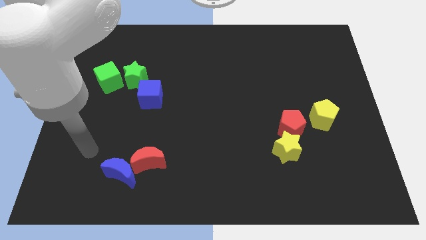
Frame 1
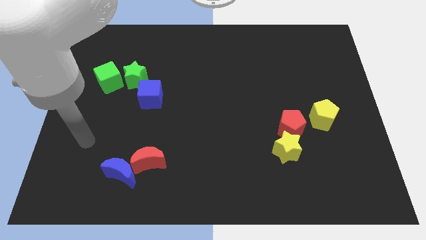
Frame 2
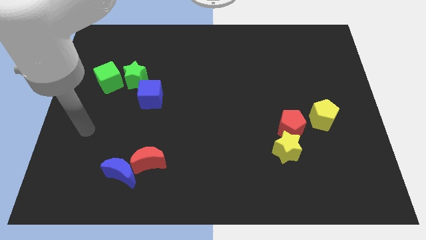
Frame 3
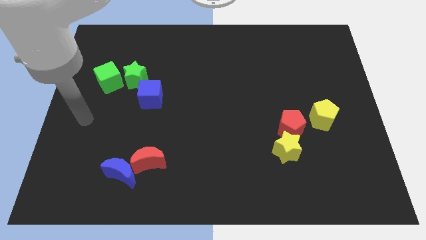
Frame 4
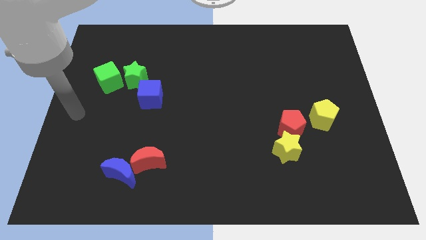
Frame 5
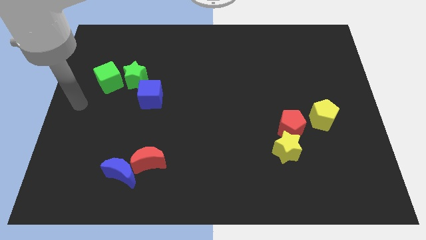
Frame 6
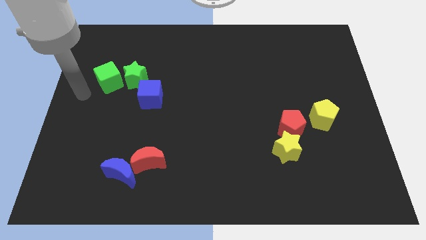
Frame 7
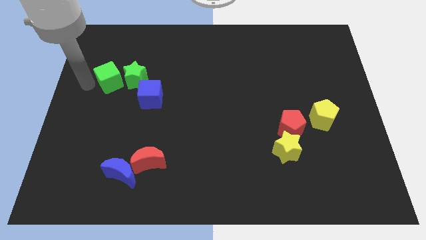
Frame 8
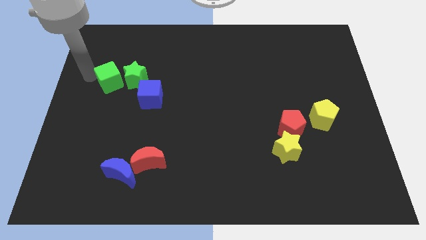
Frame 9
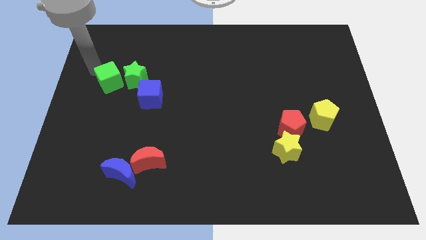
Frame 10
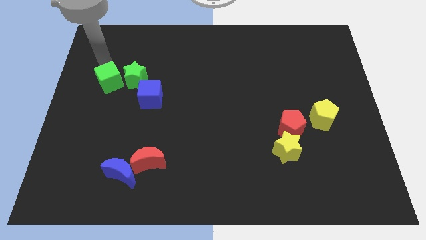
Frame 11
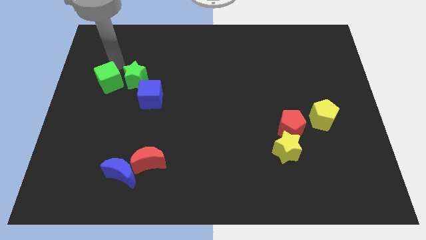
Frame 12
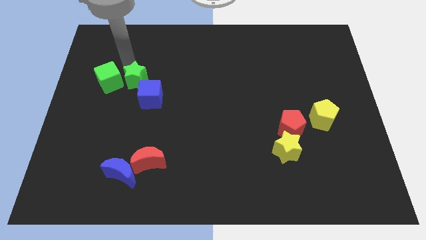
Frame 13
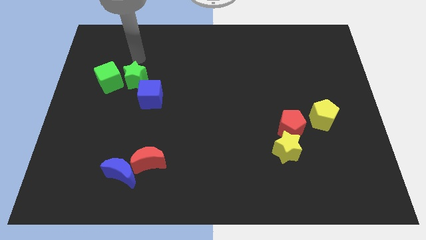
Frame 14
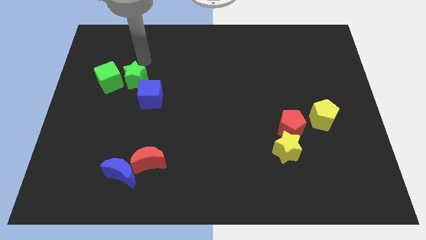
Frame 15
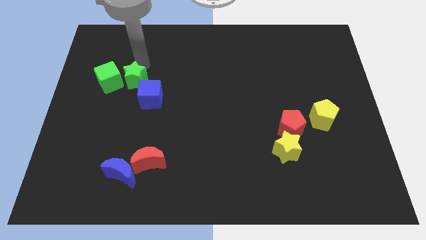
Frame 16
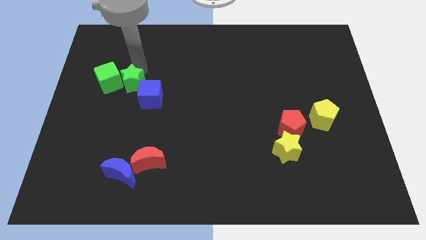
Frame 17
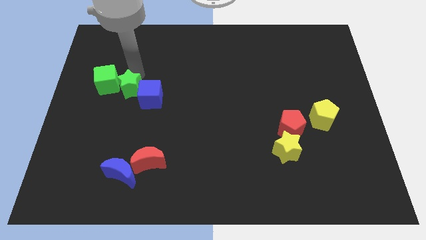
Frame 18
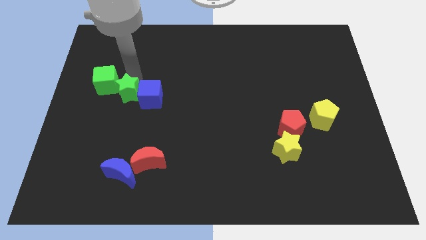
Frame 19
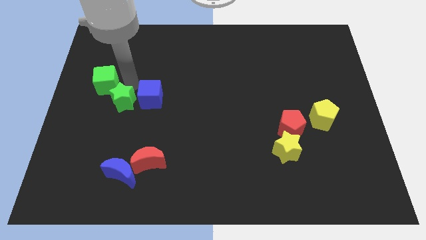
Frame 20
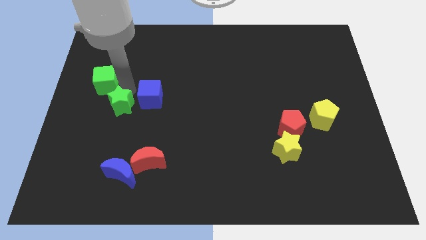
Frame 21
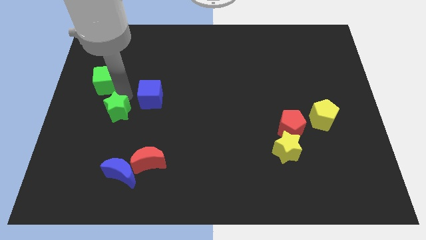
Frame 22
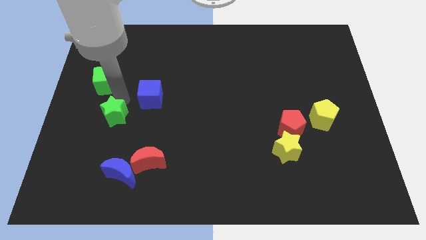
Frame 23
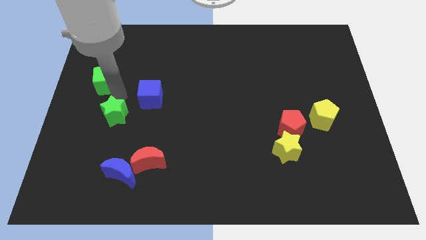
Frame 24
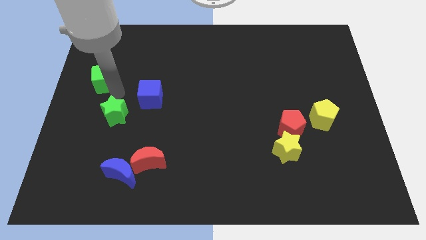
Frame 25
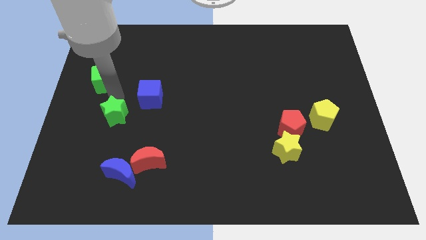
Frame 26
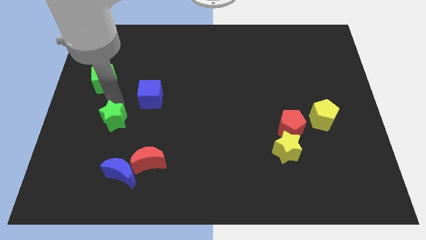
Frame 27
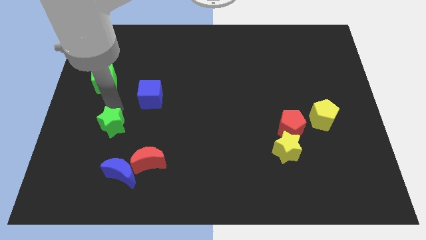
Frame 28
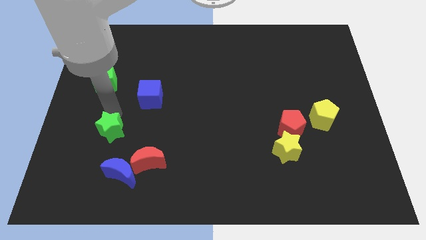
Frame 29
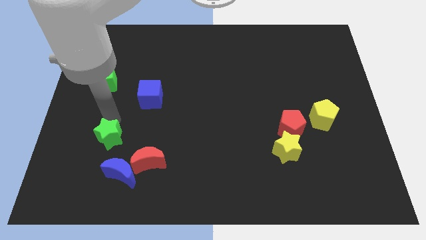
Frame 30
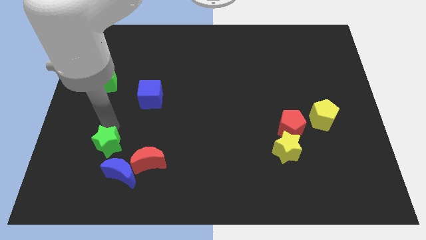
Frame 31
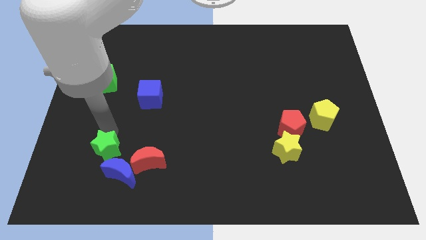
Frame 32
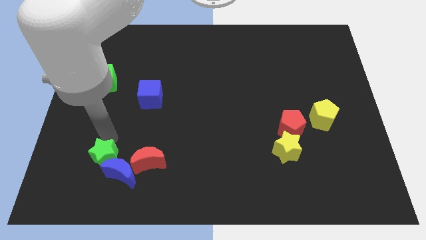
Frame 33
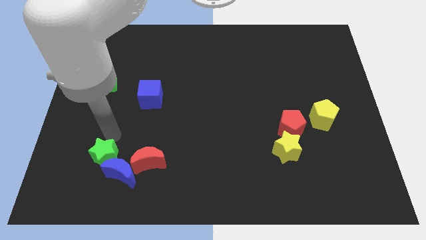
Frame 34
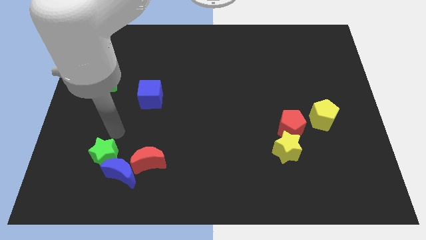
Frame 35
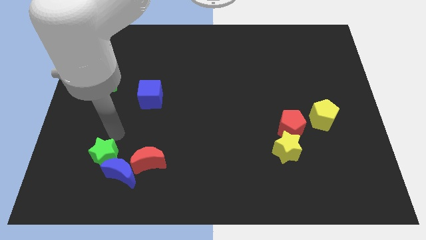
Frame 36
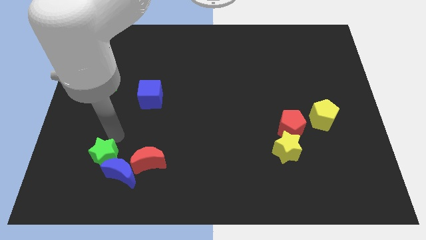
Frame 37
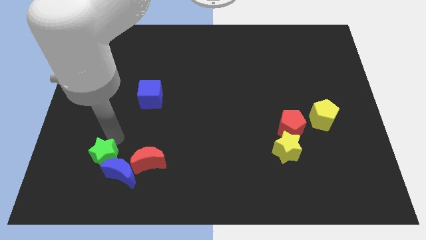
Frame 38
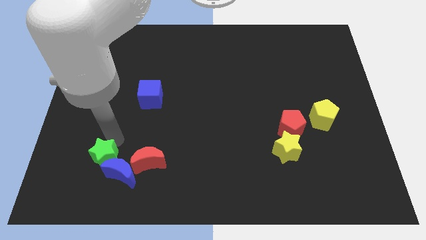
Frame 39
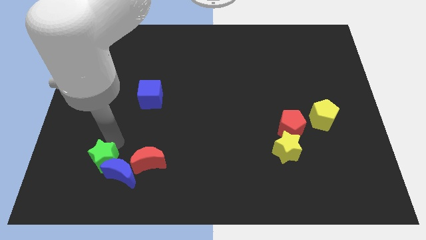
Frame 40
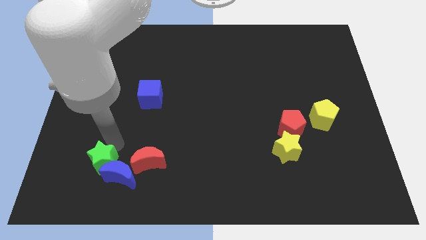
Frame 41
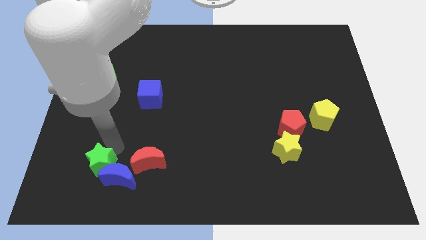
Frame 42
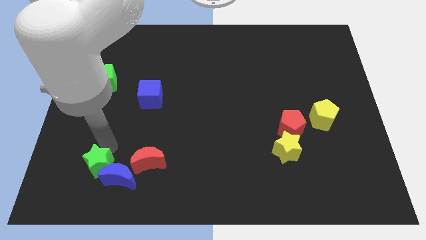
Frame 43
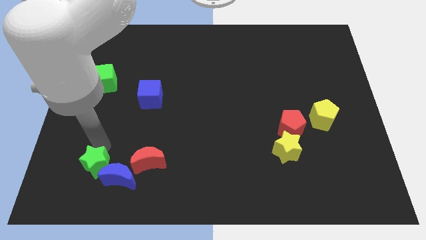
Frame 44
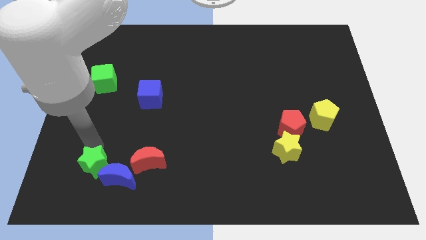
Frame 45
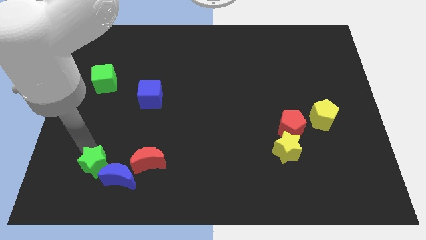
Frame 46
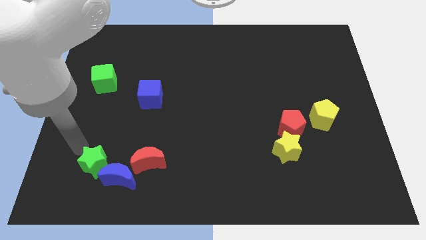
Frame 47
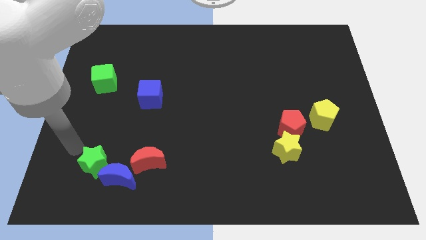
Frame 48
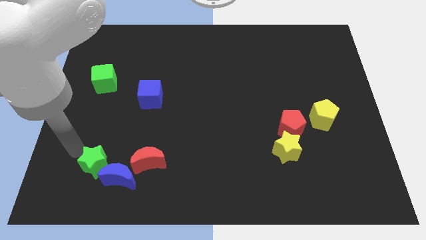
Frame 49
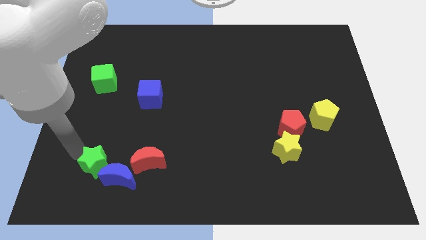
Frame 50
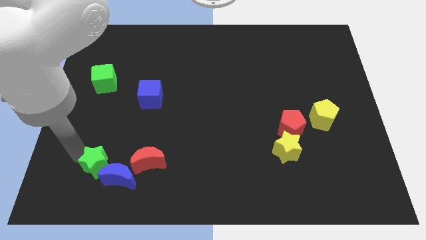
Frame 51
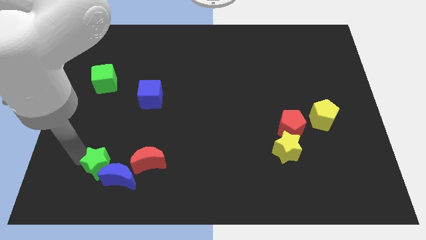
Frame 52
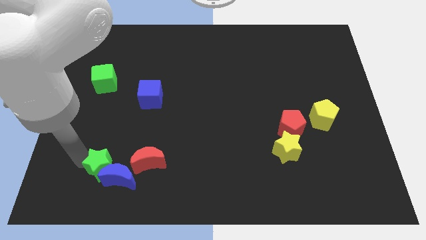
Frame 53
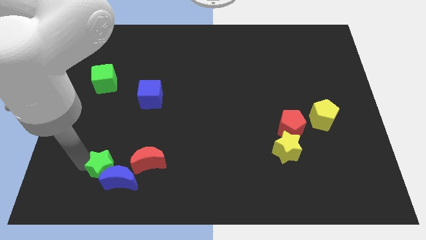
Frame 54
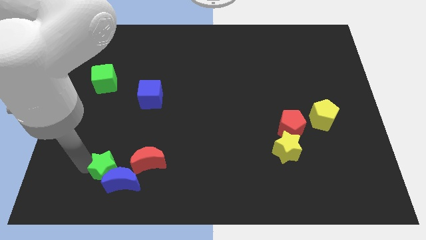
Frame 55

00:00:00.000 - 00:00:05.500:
push the green star to the bottom left of the red moon

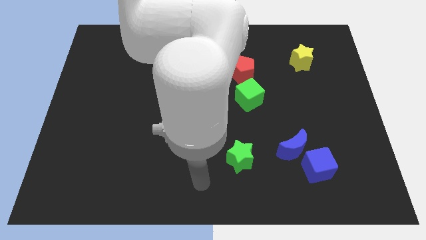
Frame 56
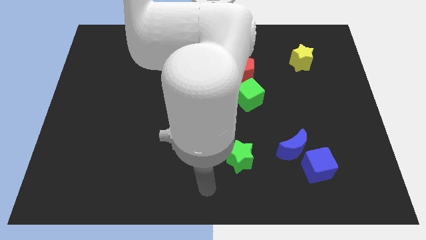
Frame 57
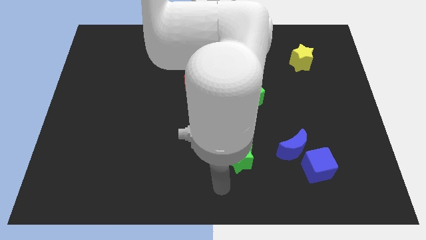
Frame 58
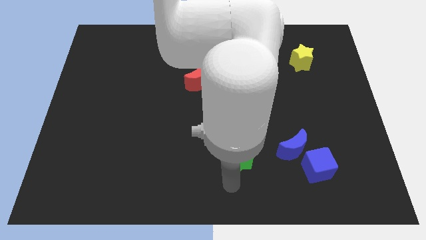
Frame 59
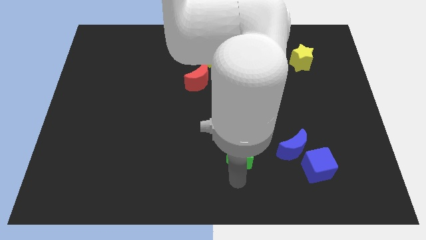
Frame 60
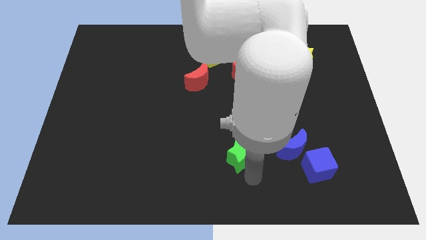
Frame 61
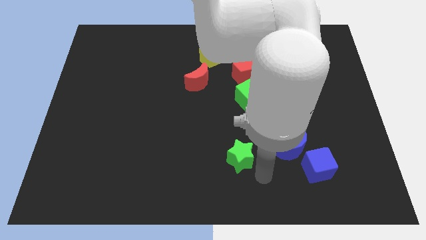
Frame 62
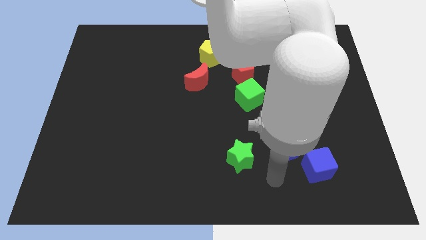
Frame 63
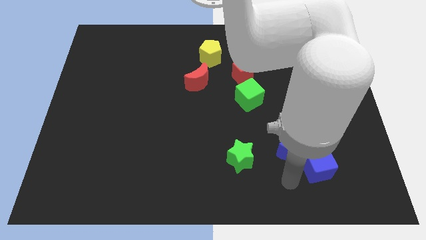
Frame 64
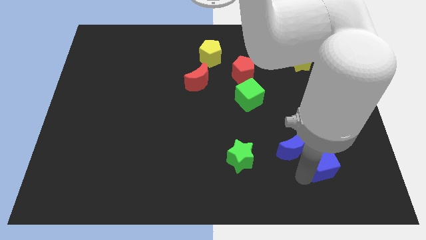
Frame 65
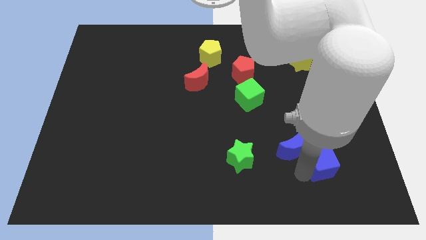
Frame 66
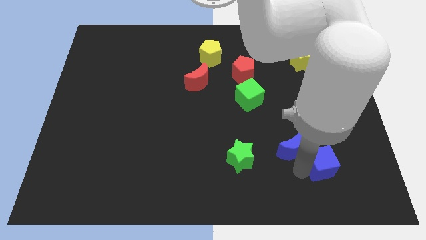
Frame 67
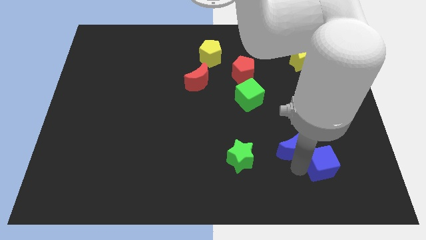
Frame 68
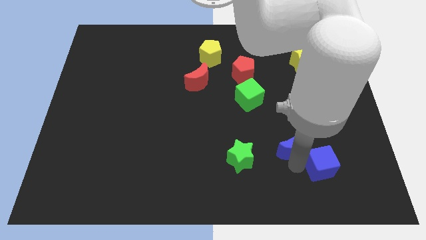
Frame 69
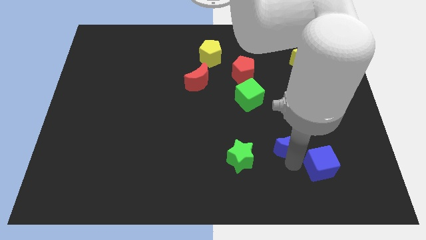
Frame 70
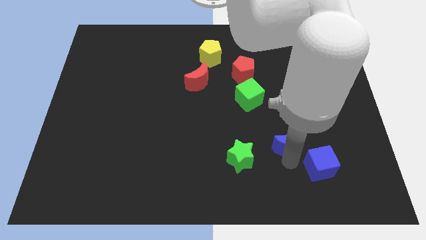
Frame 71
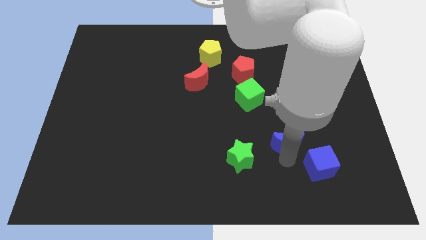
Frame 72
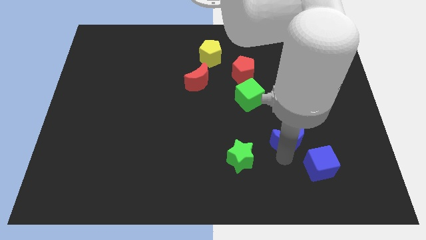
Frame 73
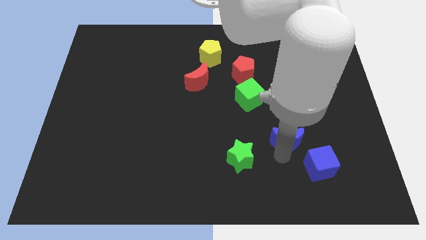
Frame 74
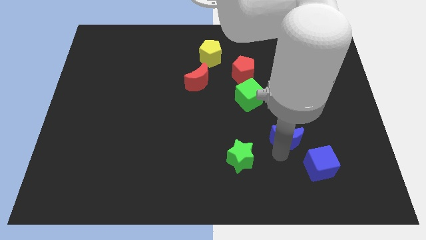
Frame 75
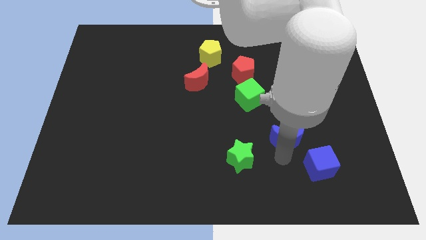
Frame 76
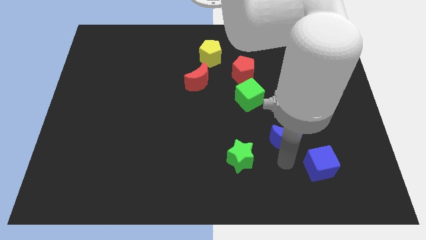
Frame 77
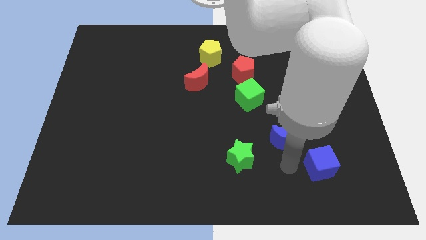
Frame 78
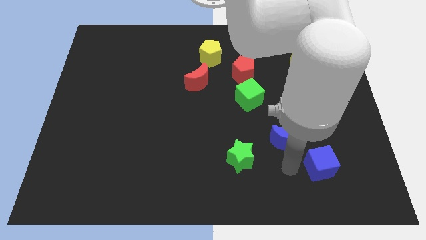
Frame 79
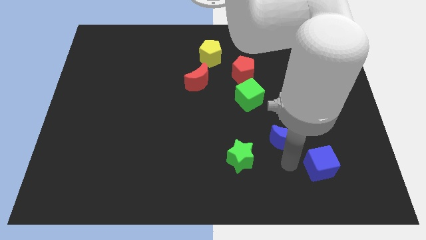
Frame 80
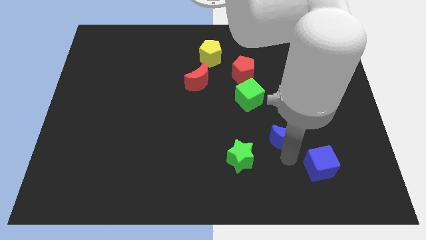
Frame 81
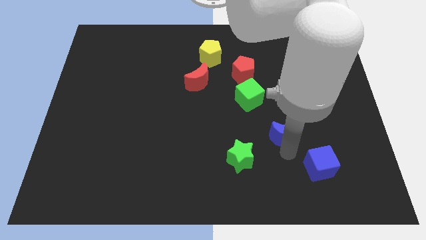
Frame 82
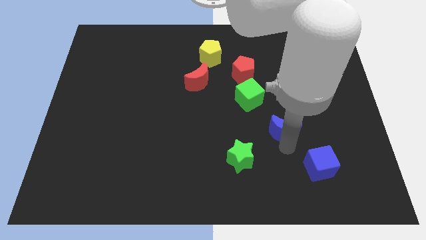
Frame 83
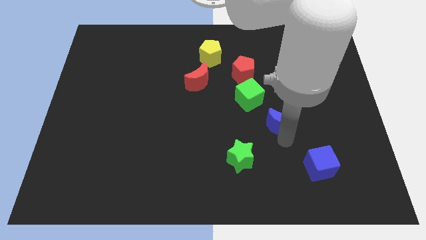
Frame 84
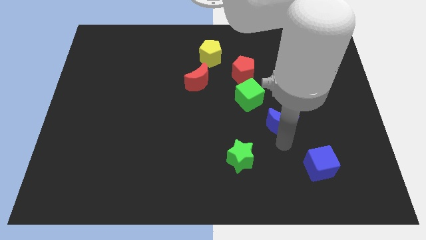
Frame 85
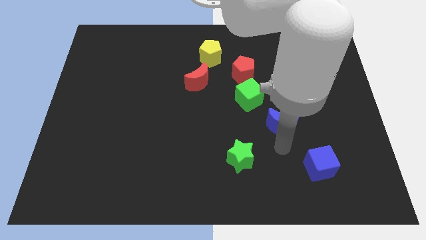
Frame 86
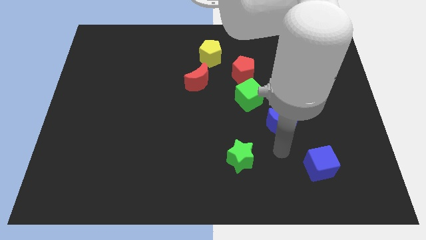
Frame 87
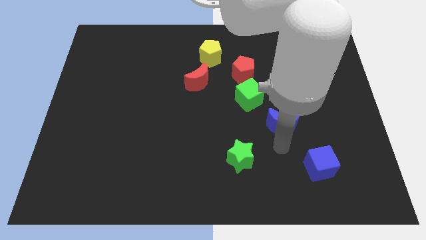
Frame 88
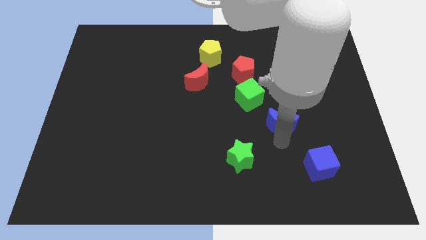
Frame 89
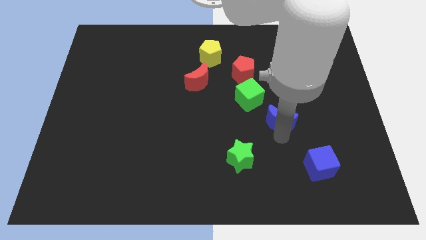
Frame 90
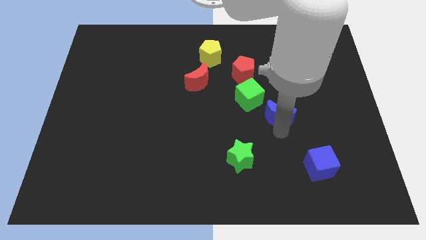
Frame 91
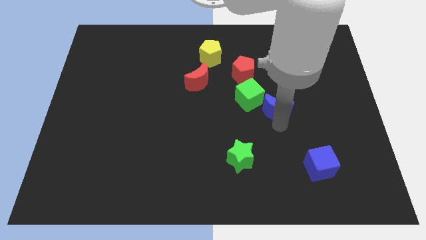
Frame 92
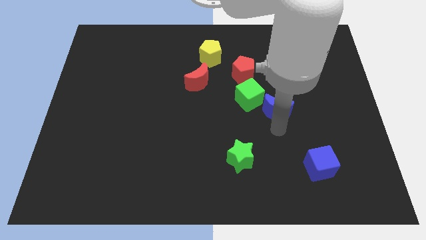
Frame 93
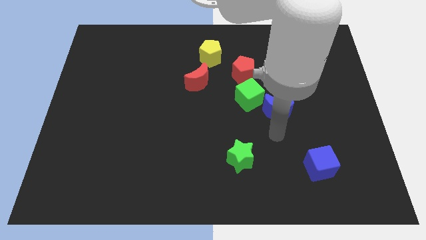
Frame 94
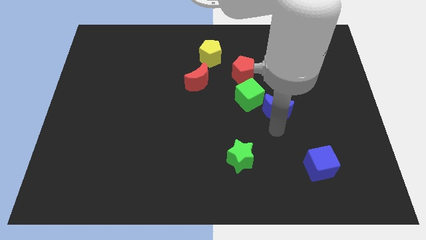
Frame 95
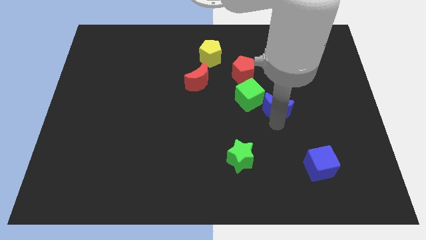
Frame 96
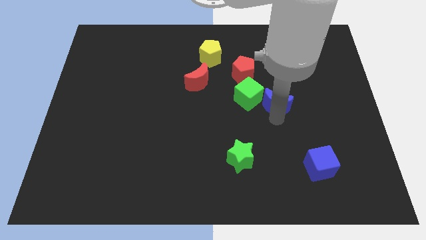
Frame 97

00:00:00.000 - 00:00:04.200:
move the blue moon to the bottom right side of the red pentagon
